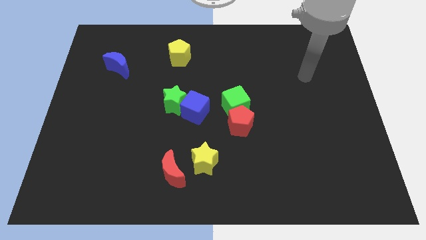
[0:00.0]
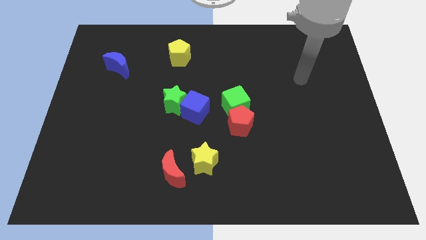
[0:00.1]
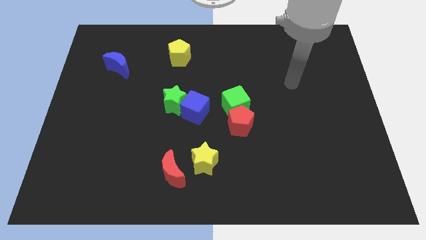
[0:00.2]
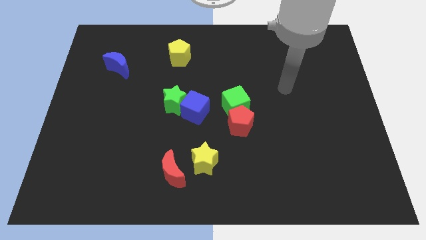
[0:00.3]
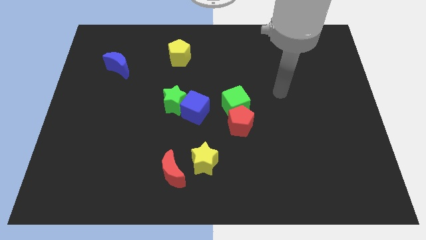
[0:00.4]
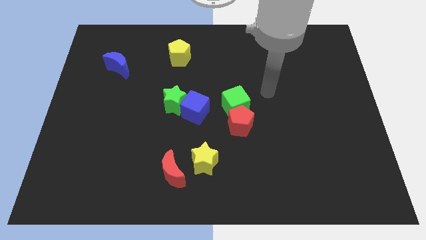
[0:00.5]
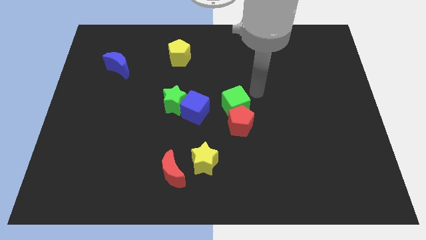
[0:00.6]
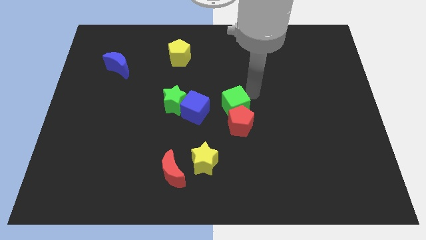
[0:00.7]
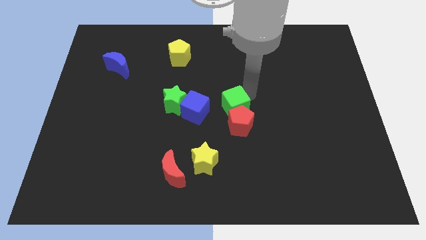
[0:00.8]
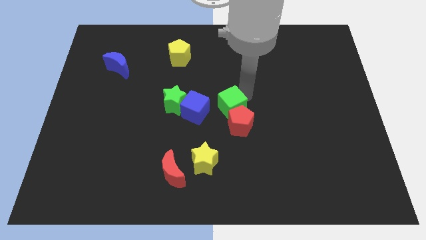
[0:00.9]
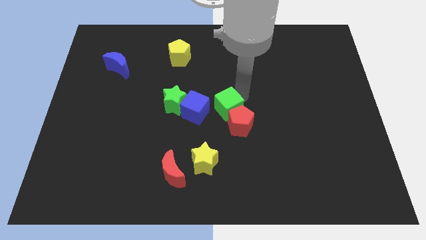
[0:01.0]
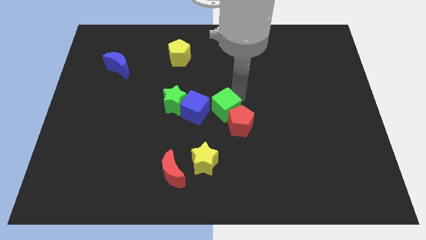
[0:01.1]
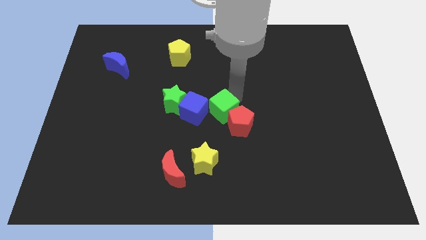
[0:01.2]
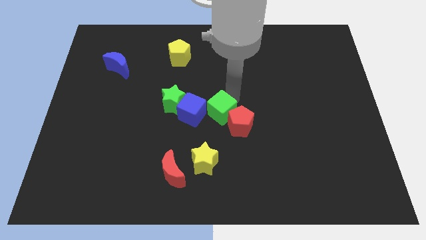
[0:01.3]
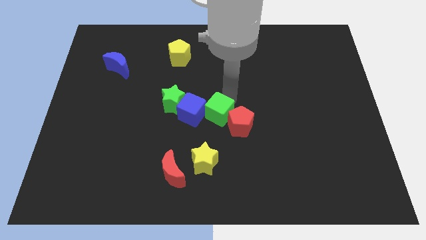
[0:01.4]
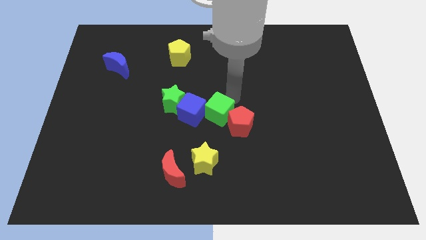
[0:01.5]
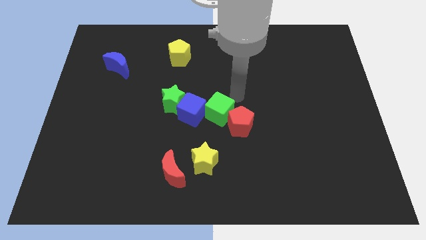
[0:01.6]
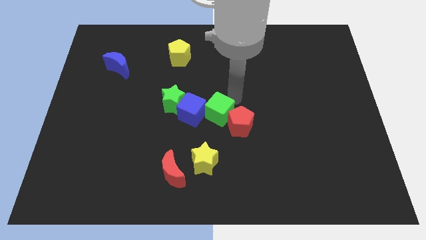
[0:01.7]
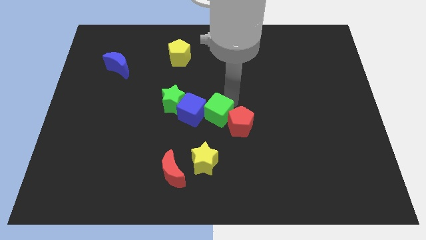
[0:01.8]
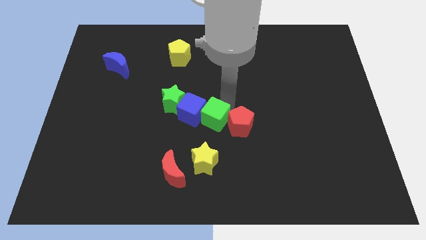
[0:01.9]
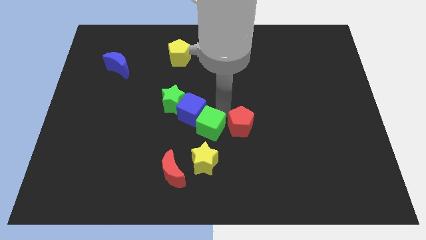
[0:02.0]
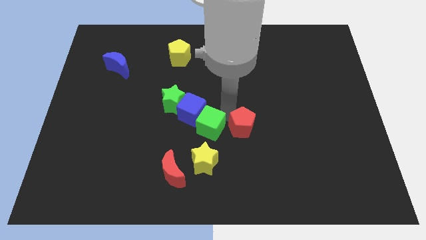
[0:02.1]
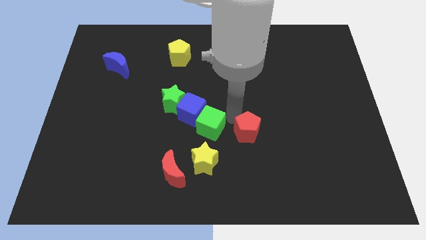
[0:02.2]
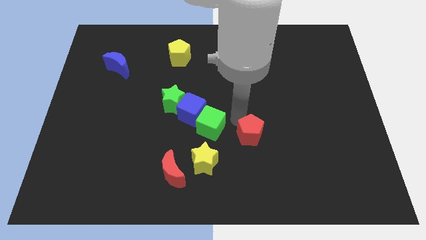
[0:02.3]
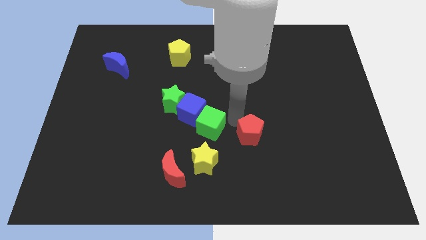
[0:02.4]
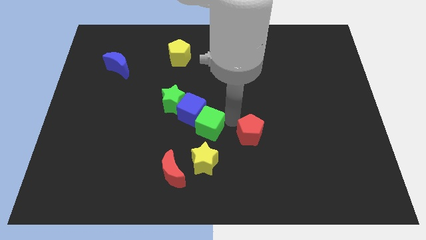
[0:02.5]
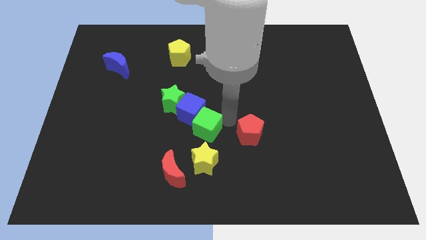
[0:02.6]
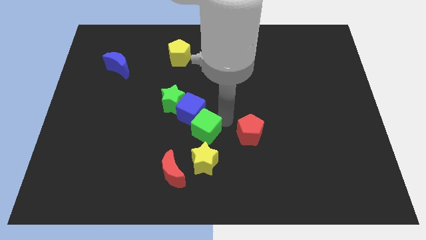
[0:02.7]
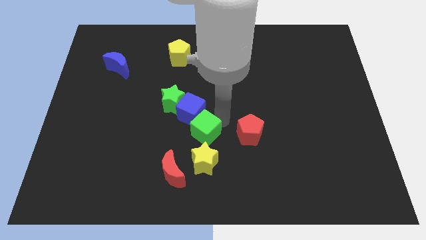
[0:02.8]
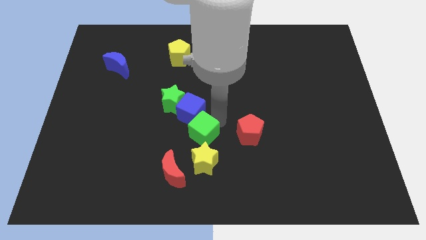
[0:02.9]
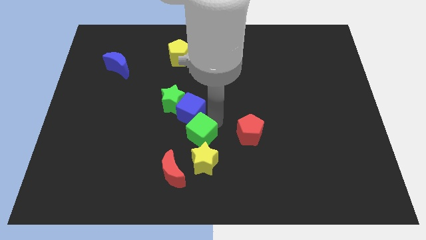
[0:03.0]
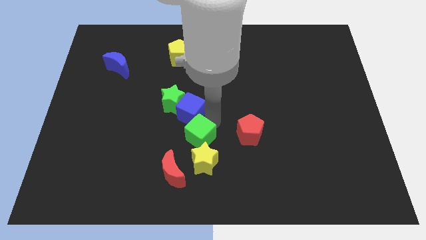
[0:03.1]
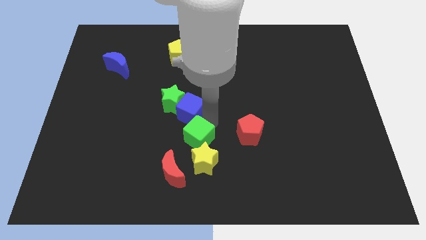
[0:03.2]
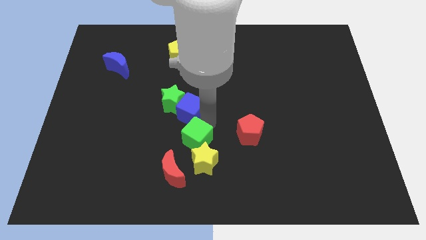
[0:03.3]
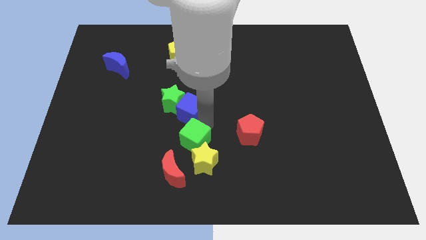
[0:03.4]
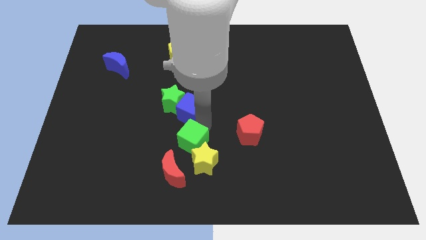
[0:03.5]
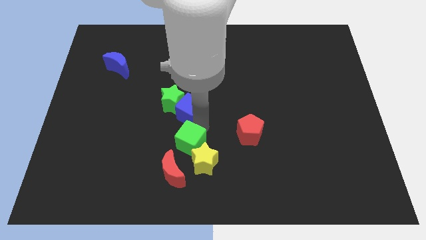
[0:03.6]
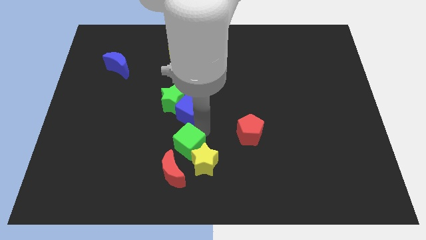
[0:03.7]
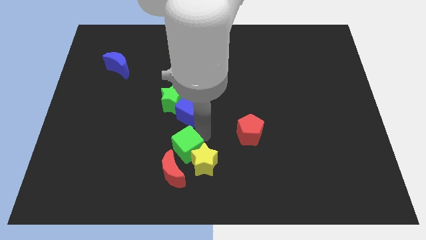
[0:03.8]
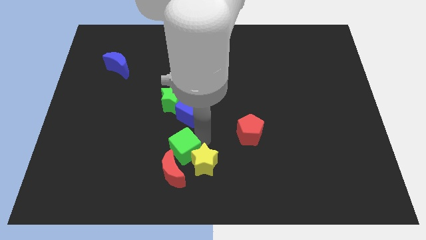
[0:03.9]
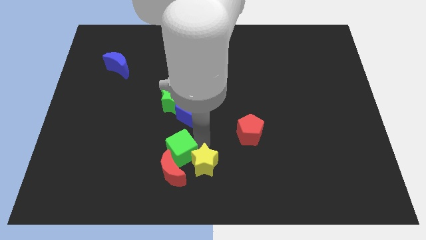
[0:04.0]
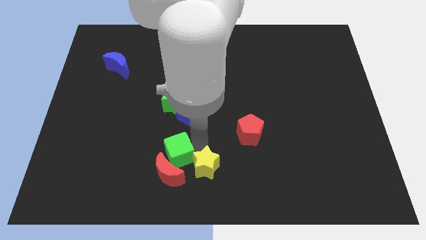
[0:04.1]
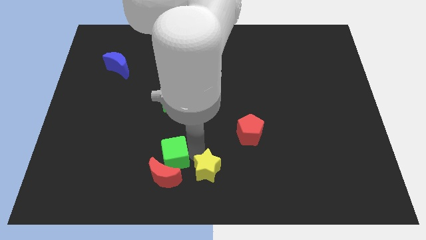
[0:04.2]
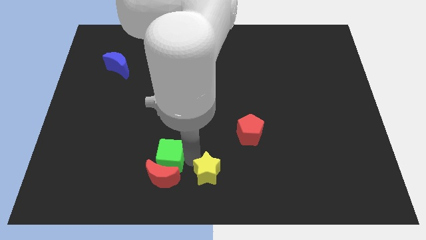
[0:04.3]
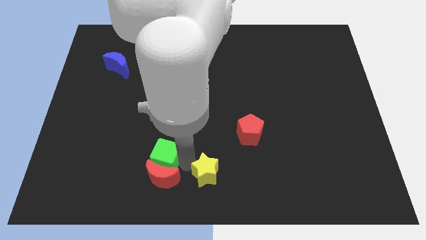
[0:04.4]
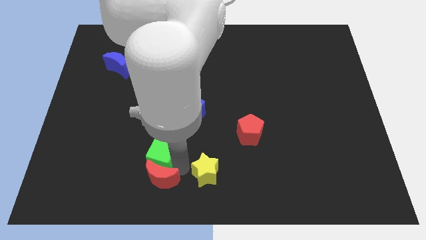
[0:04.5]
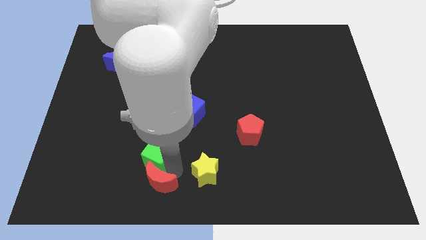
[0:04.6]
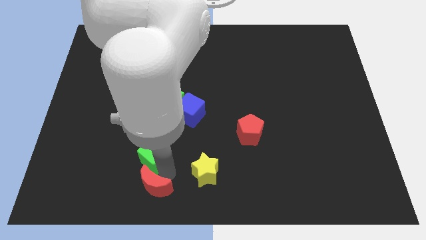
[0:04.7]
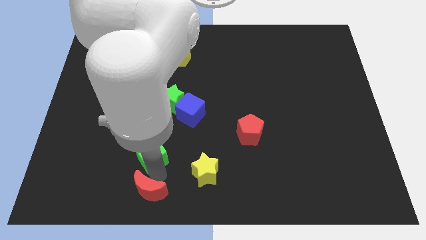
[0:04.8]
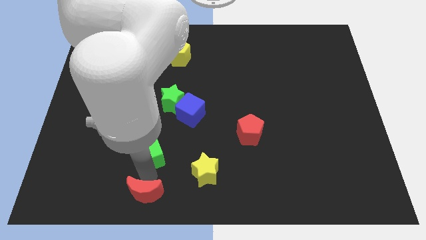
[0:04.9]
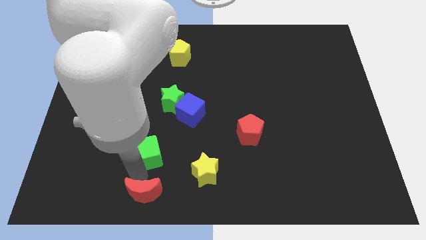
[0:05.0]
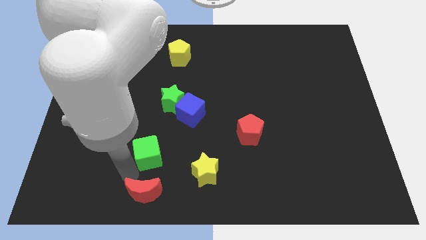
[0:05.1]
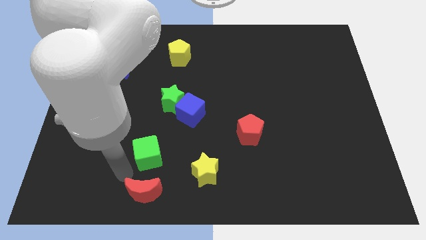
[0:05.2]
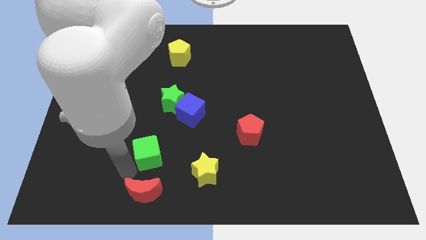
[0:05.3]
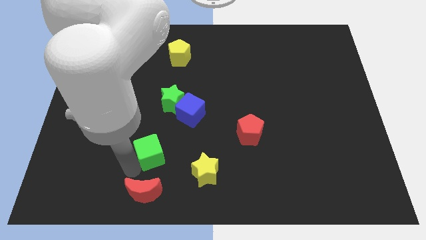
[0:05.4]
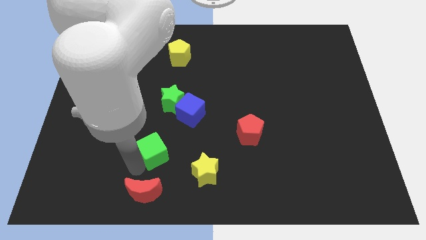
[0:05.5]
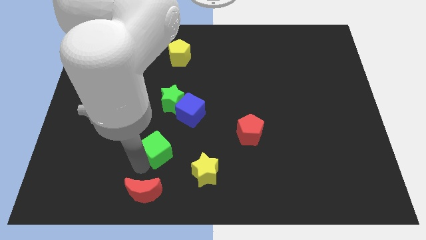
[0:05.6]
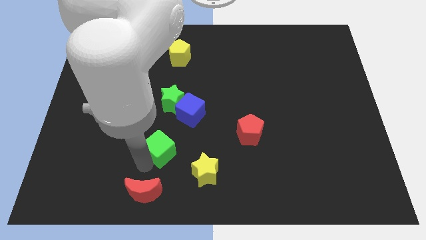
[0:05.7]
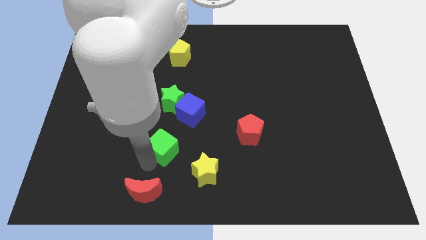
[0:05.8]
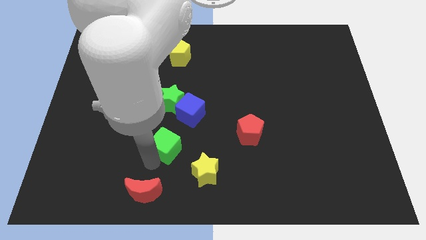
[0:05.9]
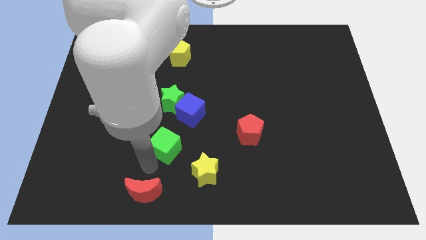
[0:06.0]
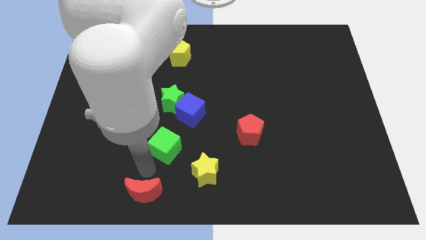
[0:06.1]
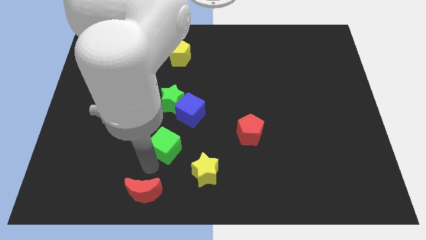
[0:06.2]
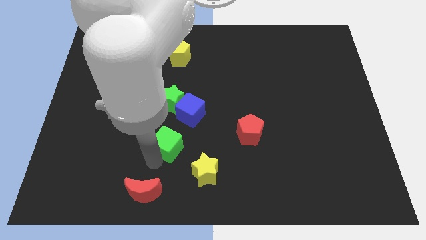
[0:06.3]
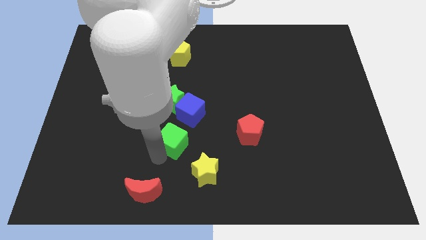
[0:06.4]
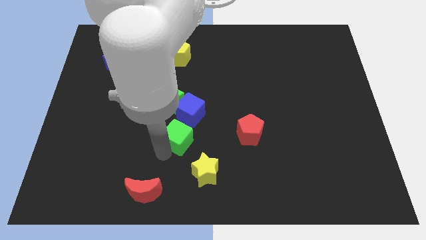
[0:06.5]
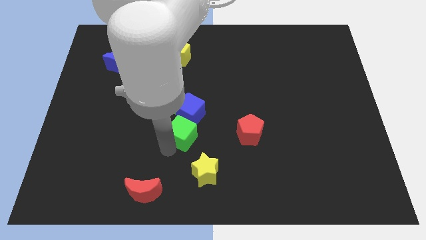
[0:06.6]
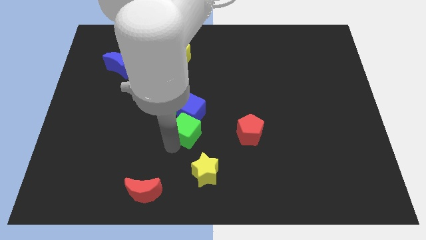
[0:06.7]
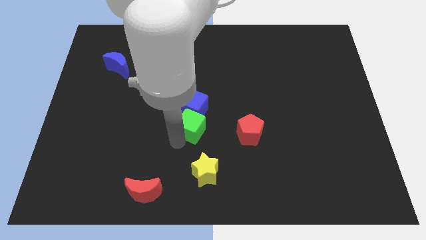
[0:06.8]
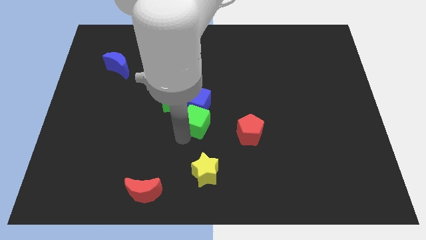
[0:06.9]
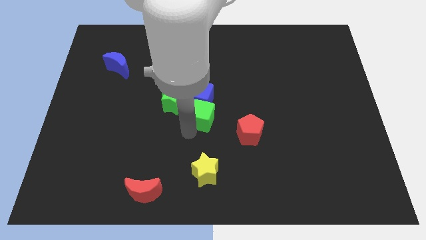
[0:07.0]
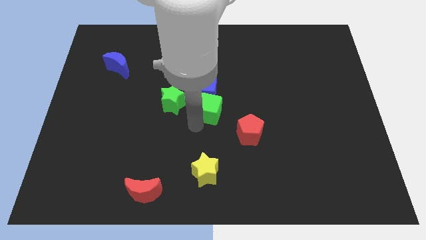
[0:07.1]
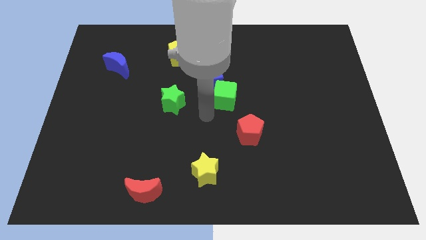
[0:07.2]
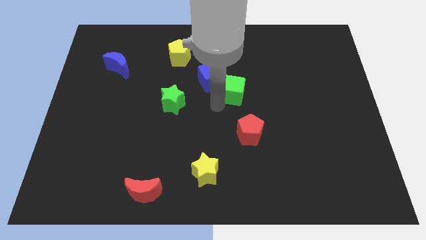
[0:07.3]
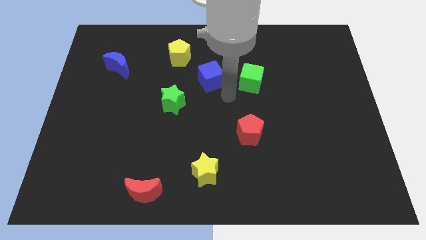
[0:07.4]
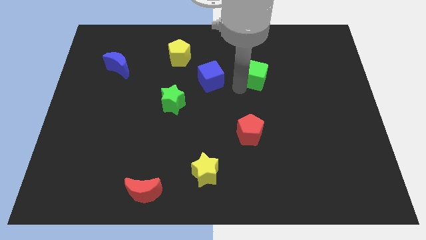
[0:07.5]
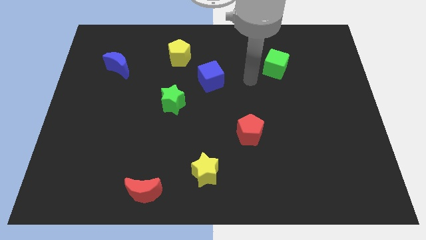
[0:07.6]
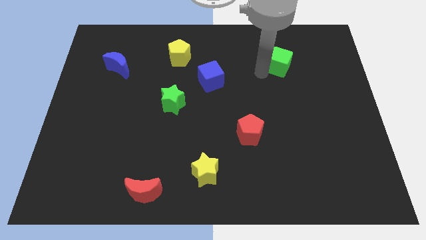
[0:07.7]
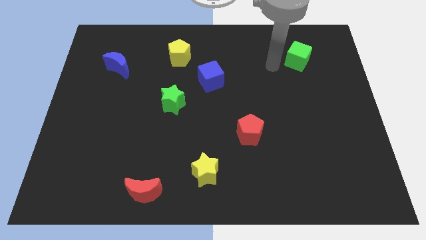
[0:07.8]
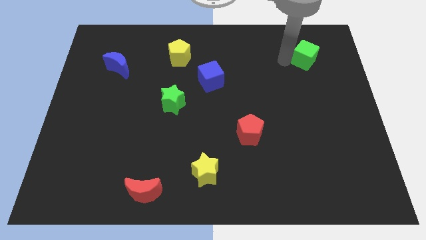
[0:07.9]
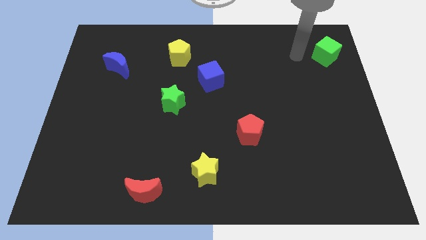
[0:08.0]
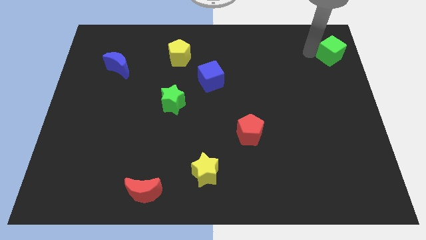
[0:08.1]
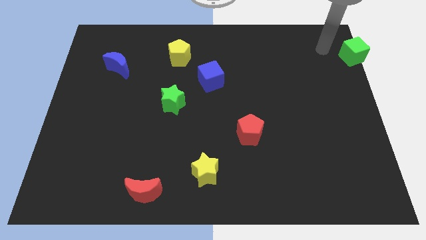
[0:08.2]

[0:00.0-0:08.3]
put the green cube to the top right
